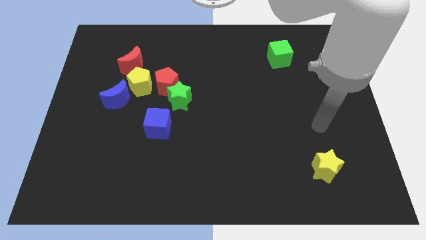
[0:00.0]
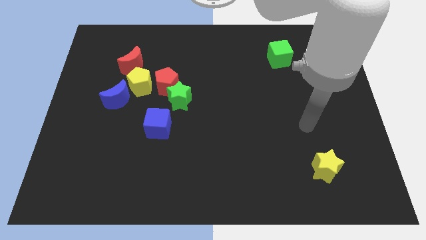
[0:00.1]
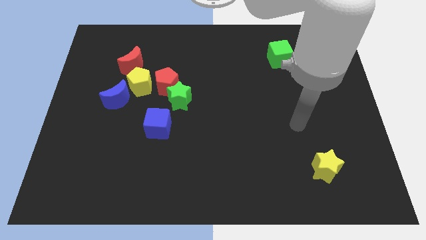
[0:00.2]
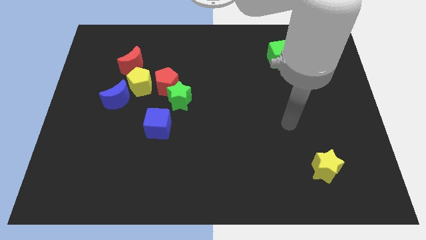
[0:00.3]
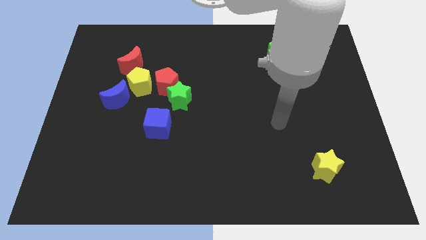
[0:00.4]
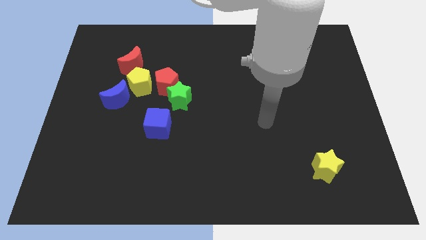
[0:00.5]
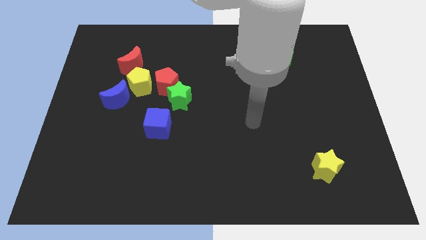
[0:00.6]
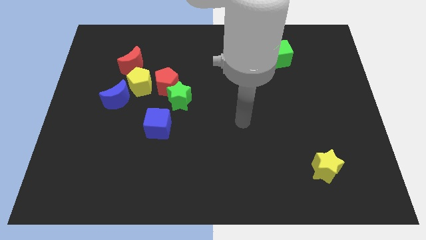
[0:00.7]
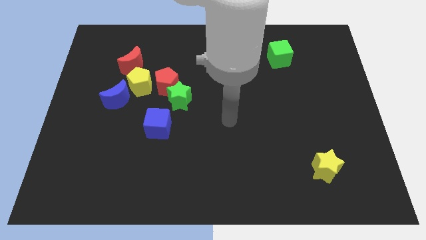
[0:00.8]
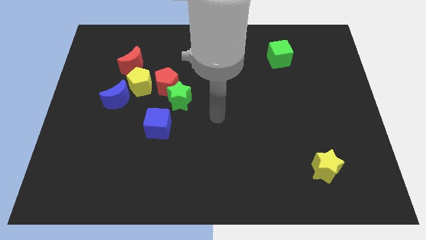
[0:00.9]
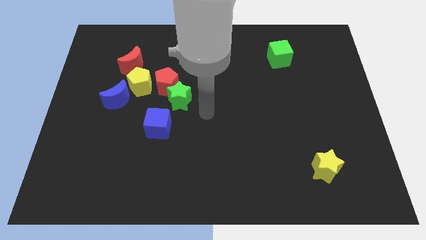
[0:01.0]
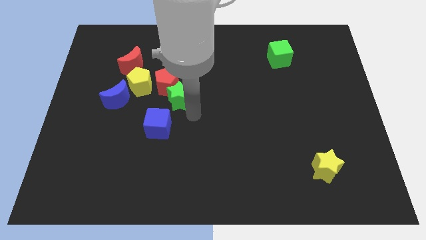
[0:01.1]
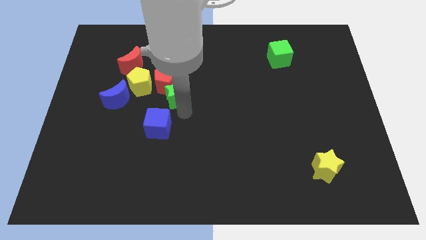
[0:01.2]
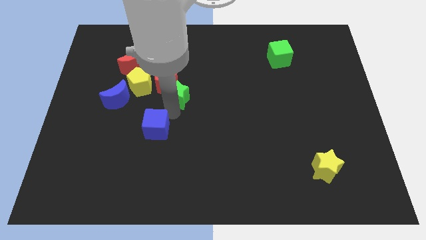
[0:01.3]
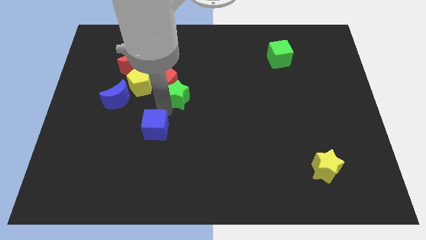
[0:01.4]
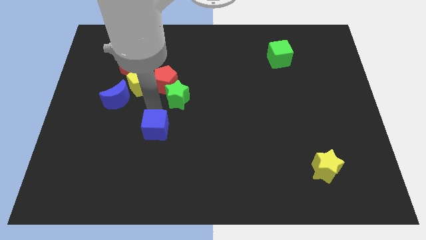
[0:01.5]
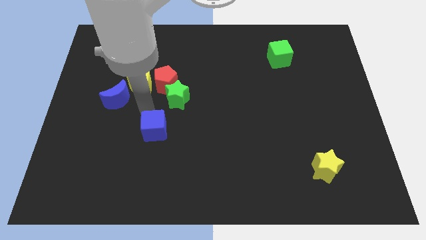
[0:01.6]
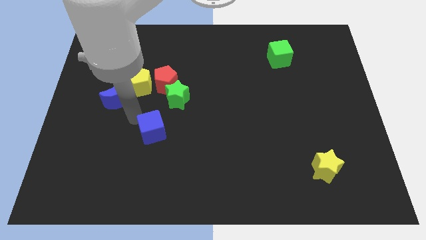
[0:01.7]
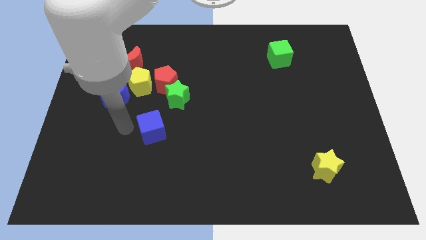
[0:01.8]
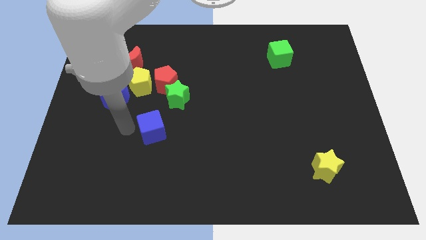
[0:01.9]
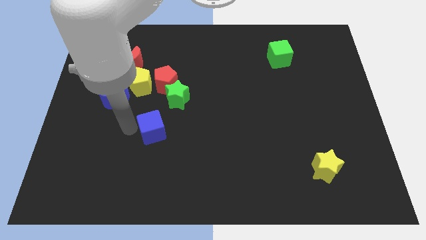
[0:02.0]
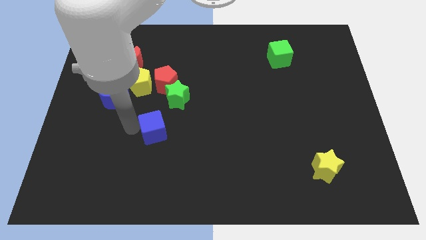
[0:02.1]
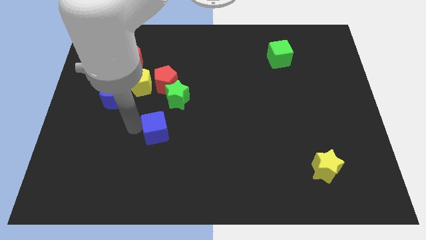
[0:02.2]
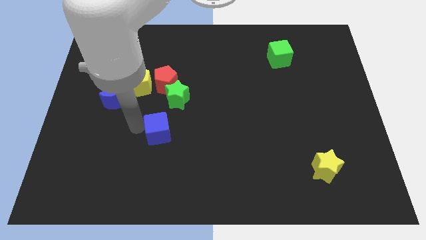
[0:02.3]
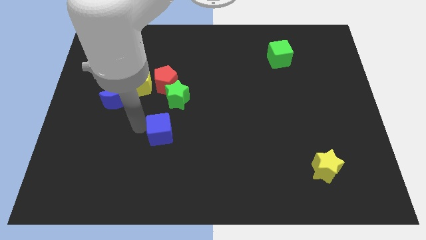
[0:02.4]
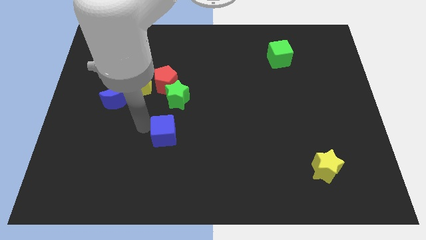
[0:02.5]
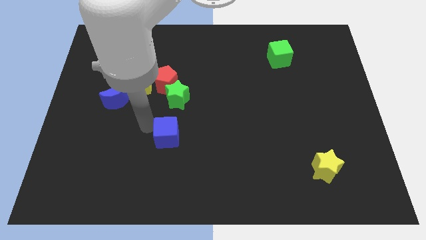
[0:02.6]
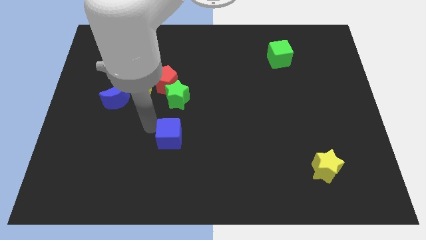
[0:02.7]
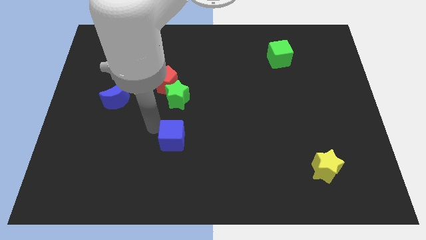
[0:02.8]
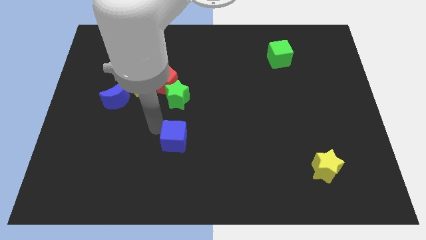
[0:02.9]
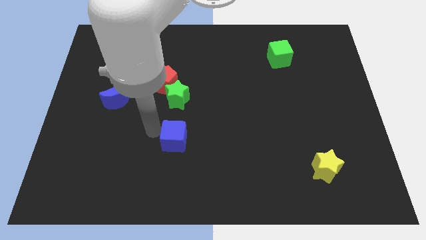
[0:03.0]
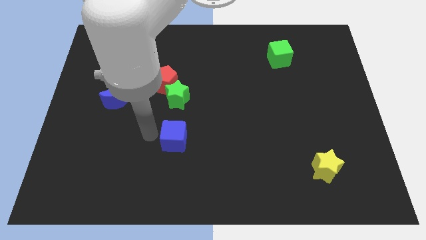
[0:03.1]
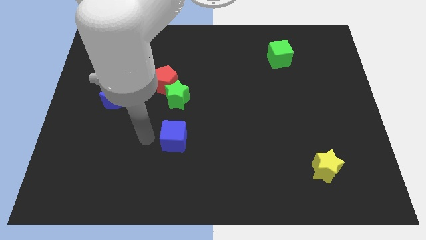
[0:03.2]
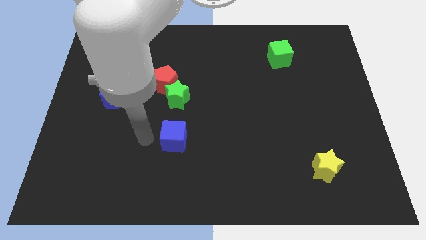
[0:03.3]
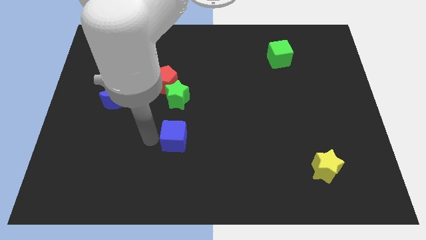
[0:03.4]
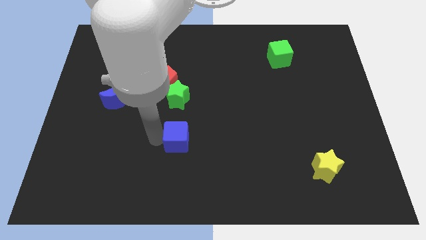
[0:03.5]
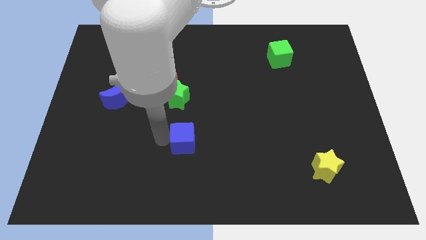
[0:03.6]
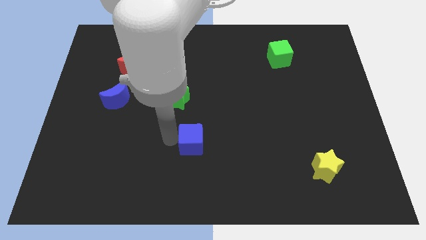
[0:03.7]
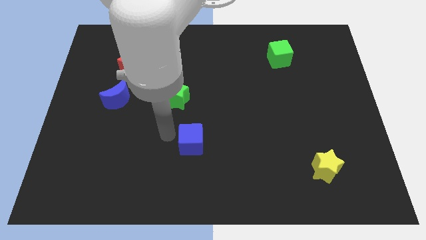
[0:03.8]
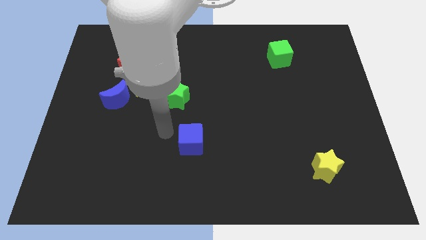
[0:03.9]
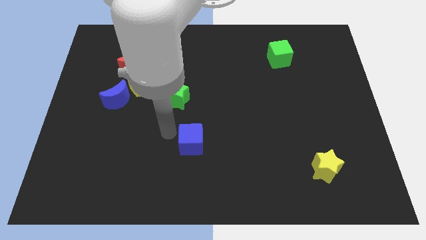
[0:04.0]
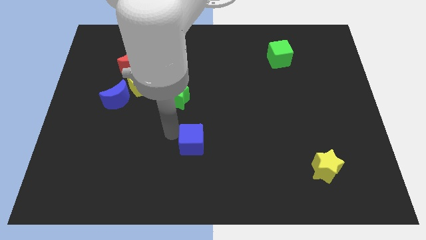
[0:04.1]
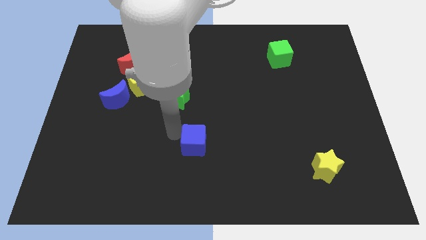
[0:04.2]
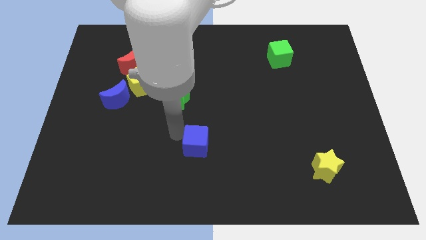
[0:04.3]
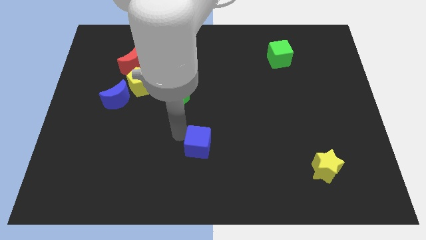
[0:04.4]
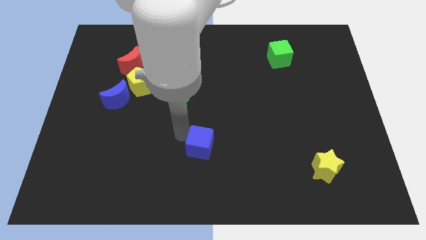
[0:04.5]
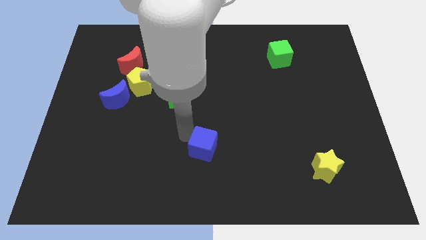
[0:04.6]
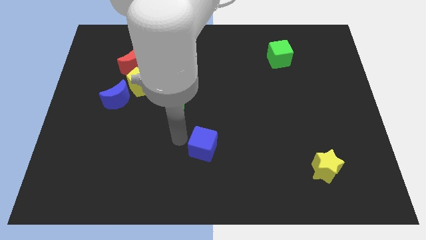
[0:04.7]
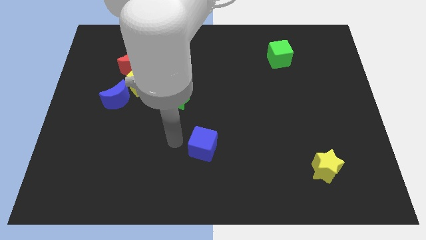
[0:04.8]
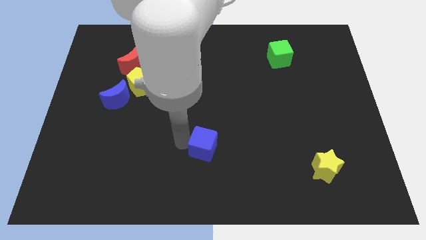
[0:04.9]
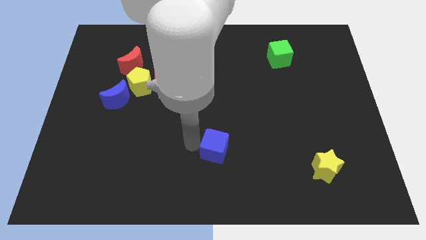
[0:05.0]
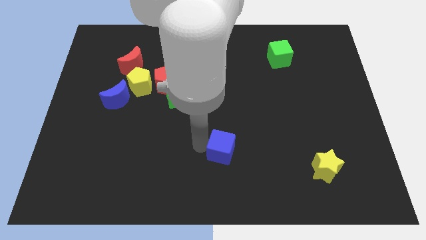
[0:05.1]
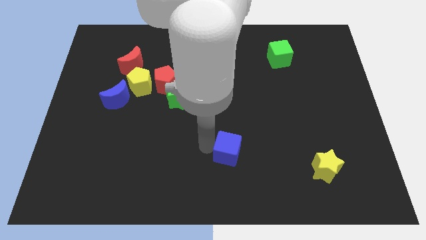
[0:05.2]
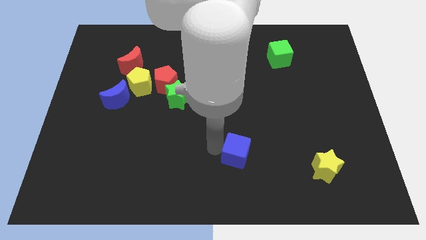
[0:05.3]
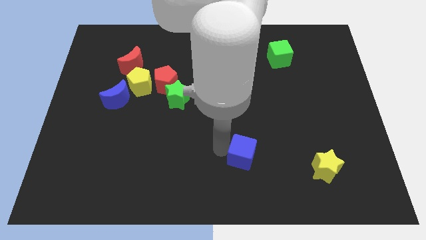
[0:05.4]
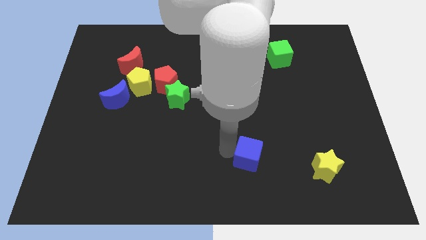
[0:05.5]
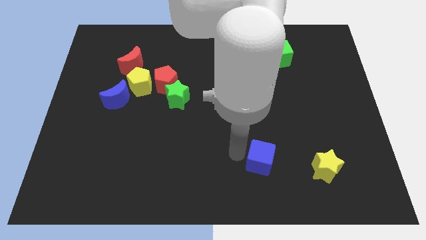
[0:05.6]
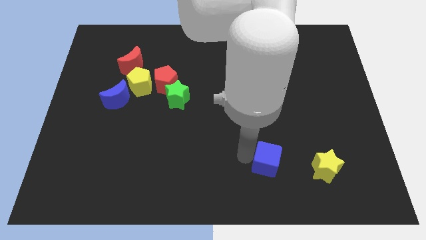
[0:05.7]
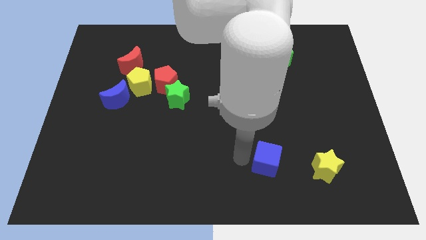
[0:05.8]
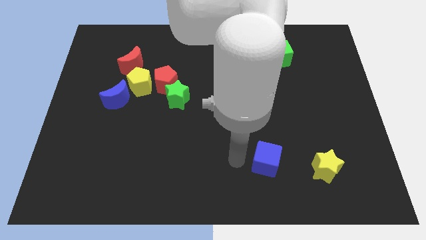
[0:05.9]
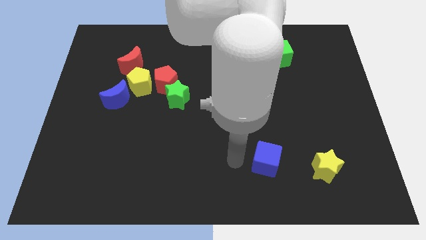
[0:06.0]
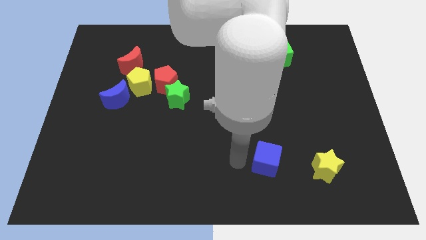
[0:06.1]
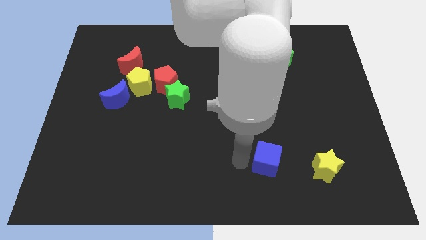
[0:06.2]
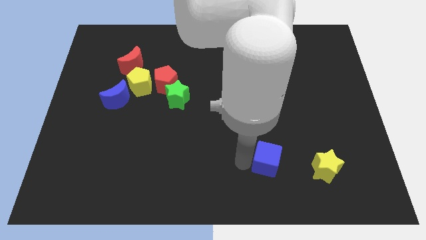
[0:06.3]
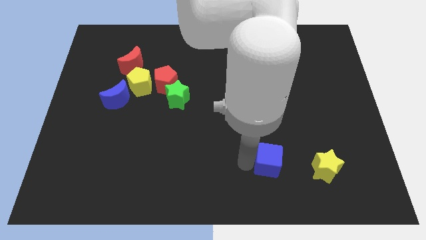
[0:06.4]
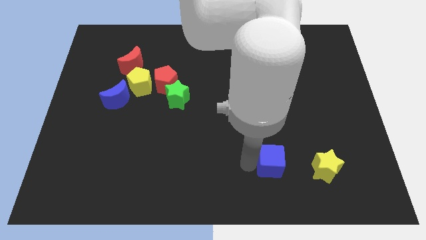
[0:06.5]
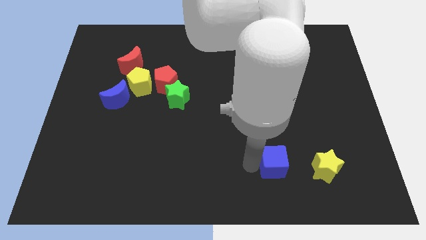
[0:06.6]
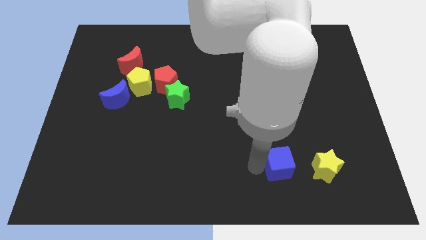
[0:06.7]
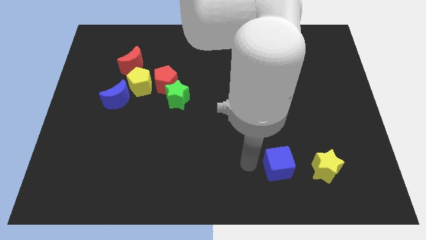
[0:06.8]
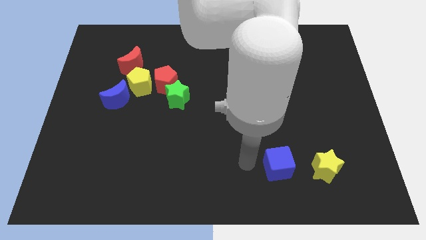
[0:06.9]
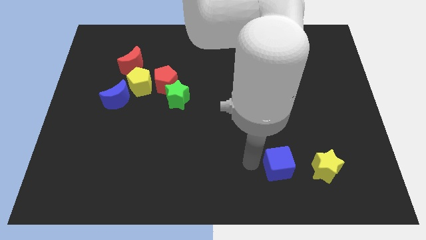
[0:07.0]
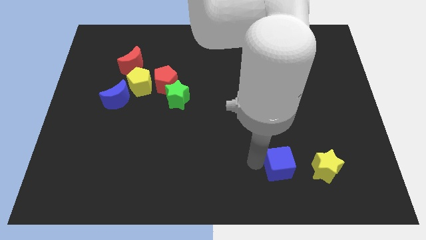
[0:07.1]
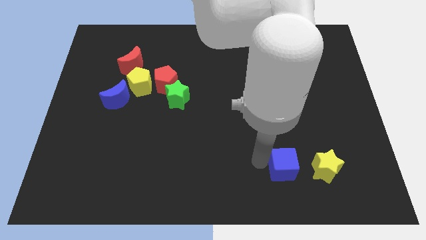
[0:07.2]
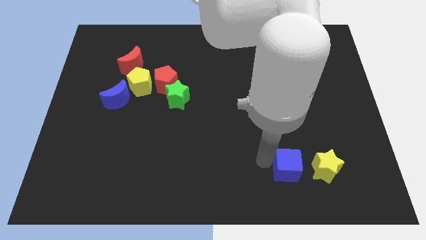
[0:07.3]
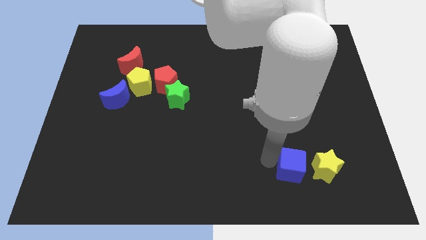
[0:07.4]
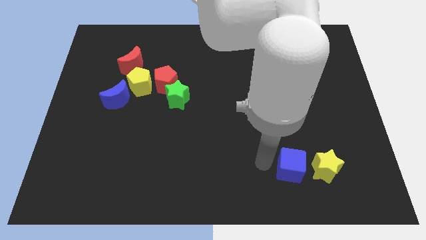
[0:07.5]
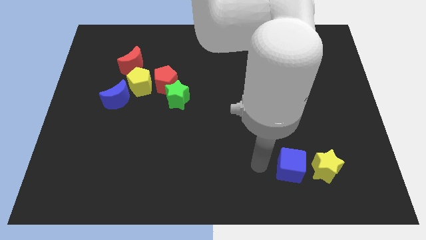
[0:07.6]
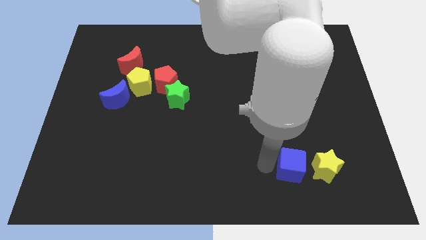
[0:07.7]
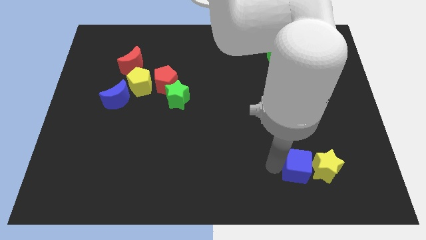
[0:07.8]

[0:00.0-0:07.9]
push the blue cube close to the yellow star

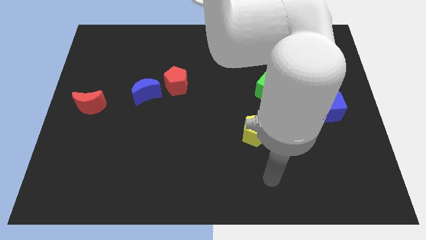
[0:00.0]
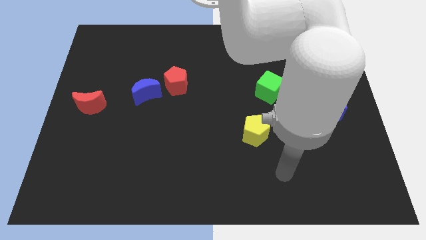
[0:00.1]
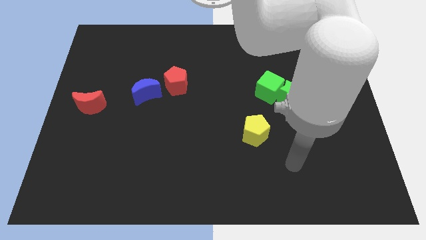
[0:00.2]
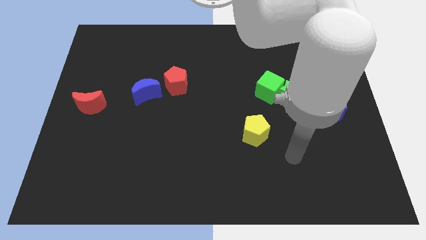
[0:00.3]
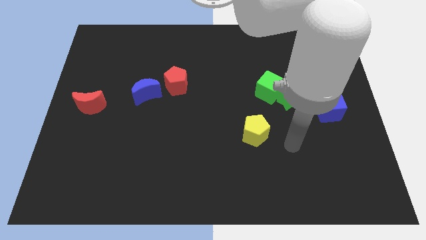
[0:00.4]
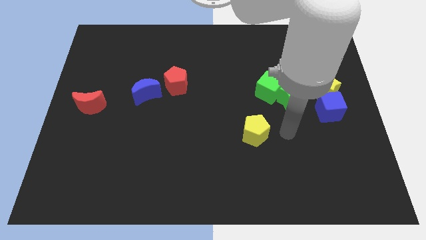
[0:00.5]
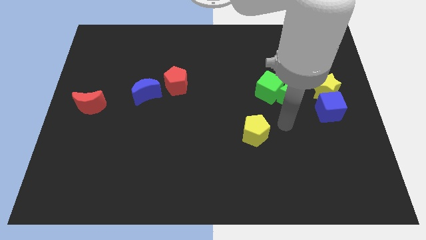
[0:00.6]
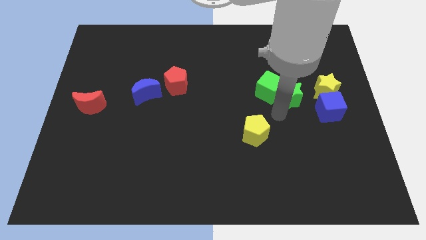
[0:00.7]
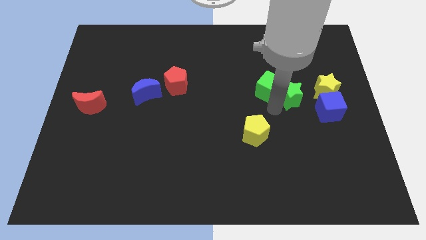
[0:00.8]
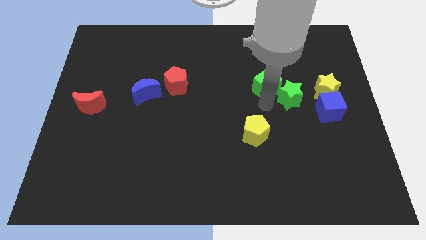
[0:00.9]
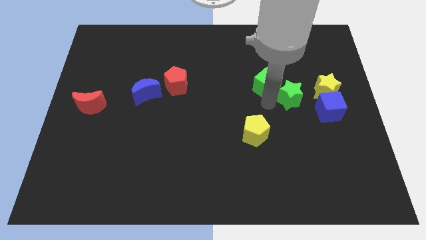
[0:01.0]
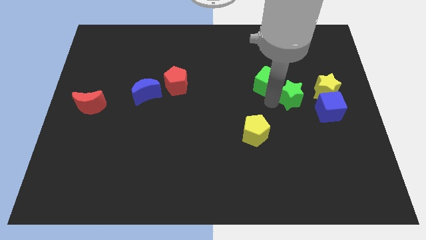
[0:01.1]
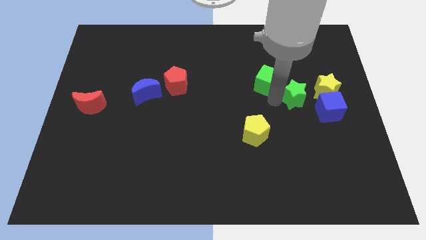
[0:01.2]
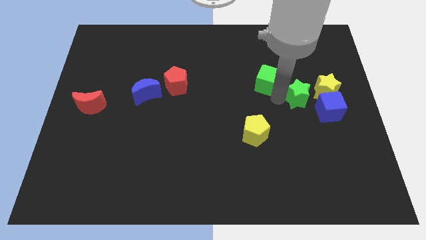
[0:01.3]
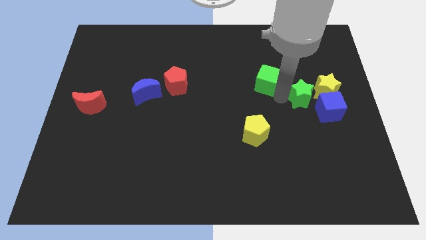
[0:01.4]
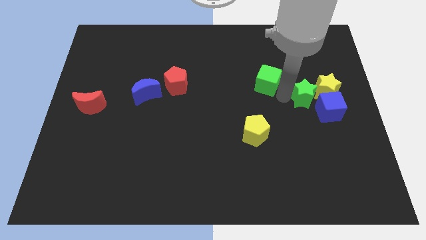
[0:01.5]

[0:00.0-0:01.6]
move the green star next to the yellow star
